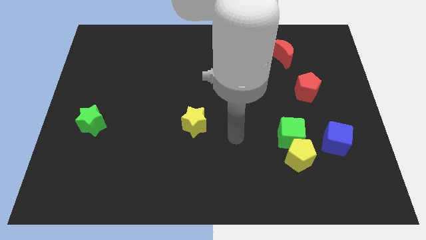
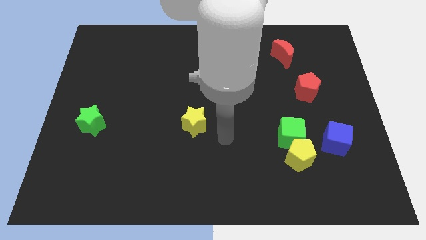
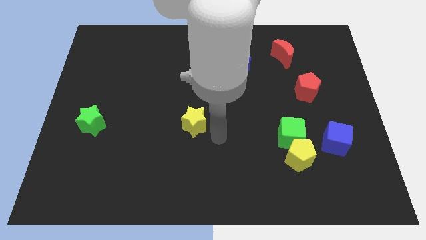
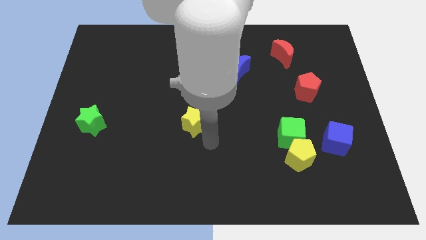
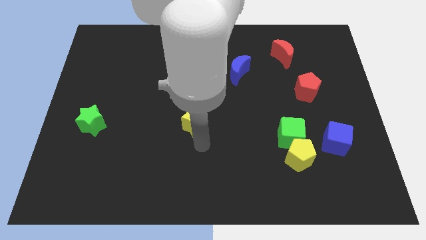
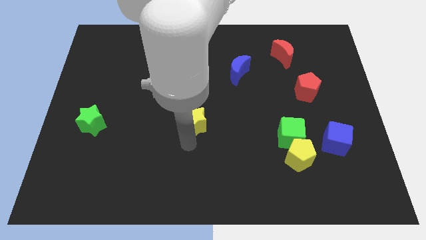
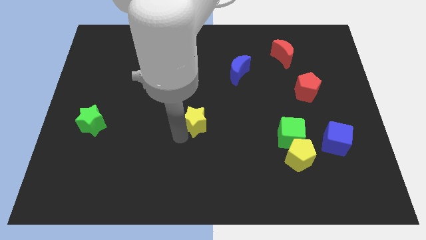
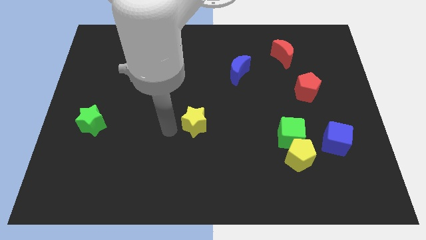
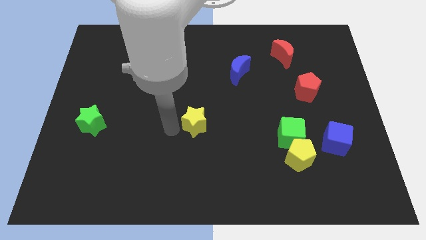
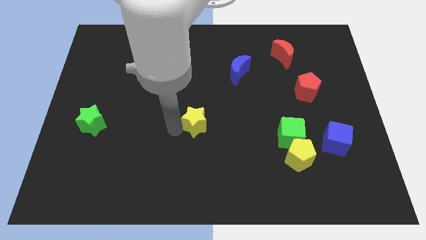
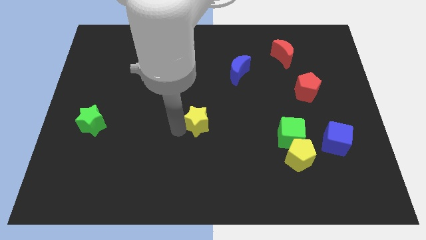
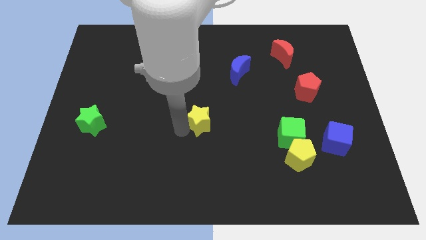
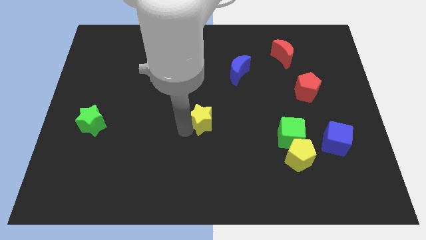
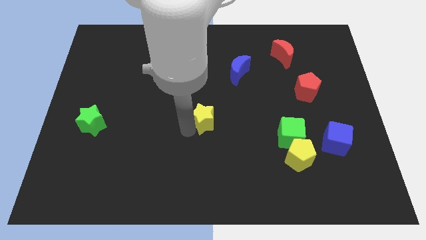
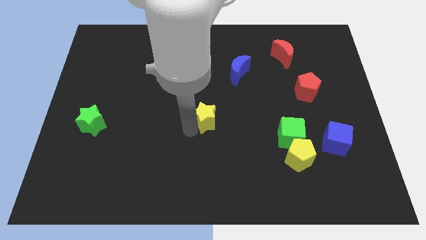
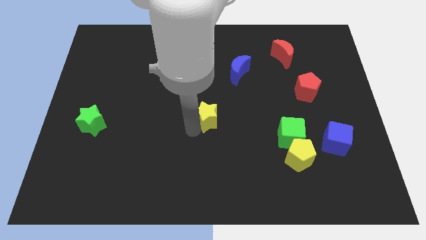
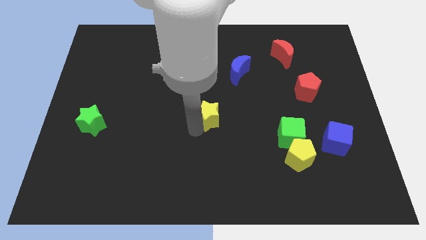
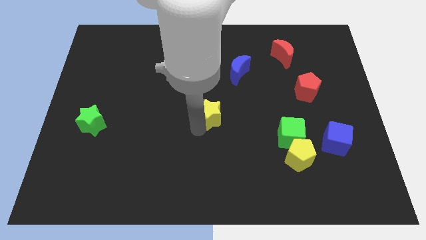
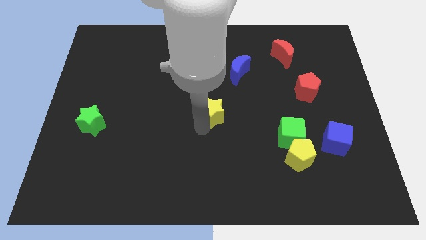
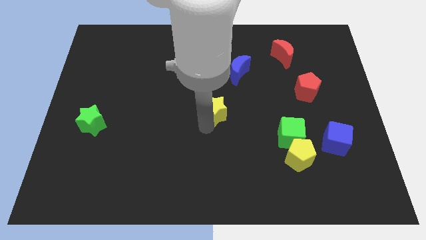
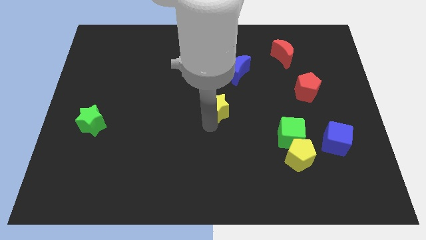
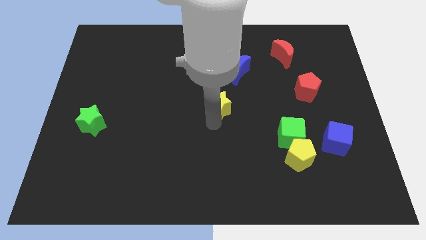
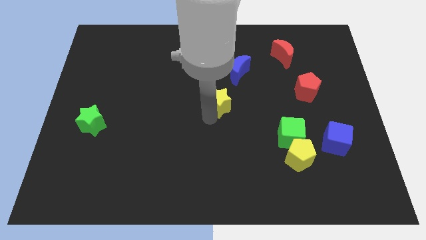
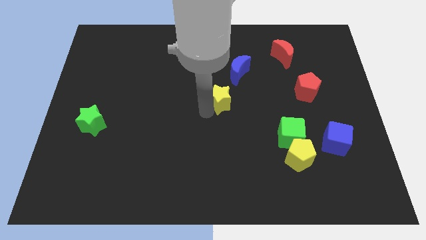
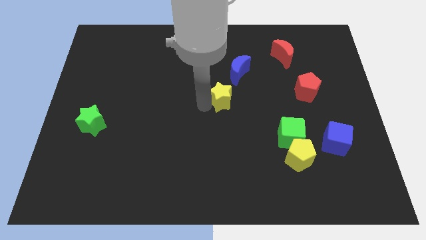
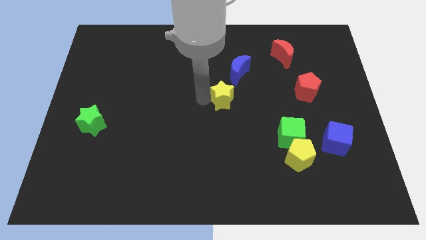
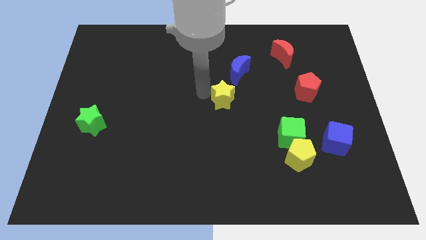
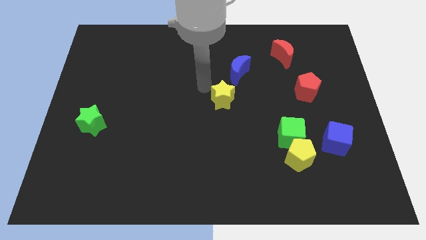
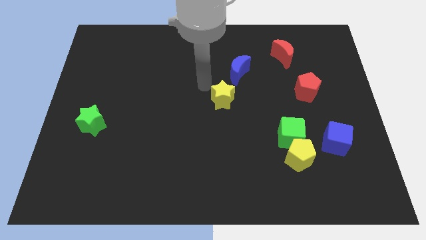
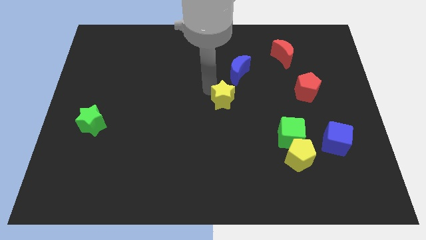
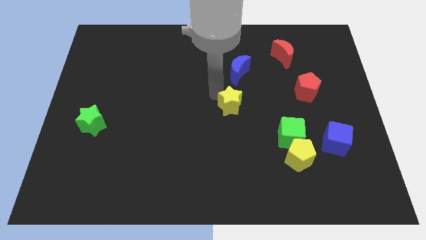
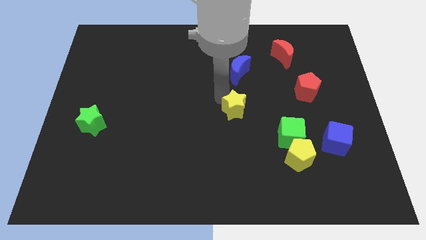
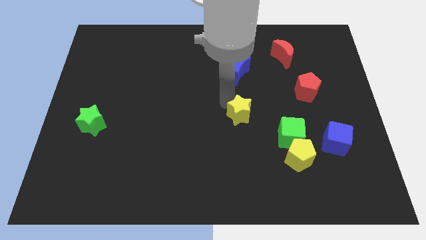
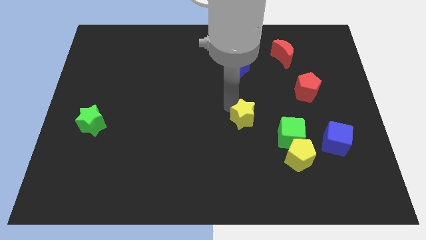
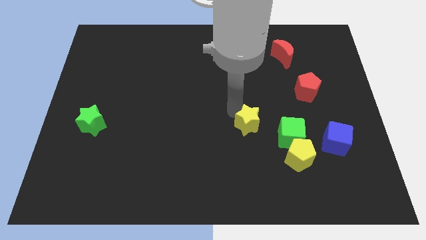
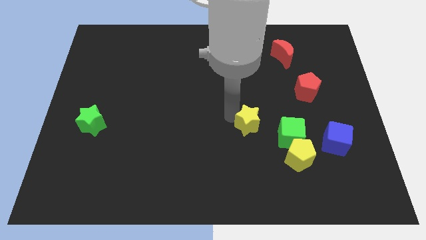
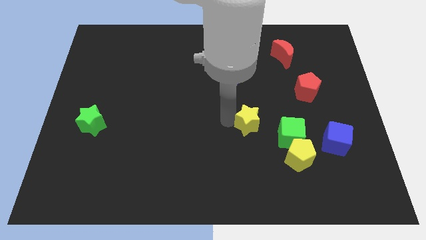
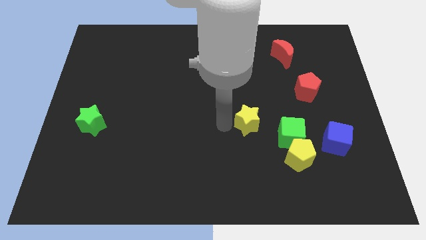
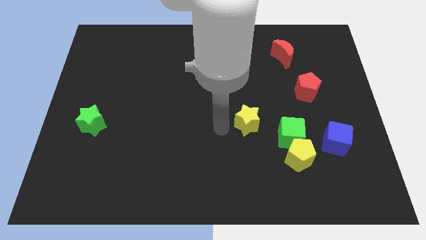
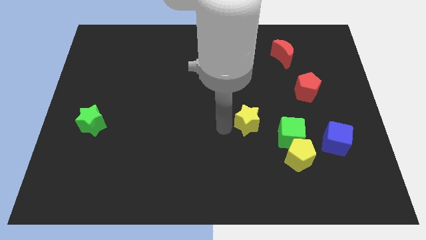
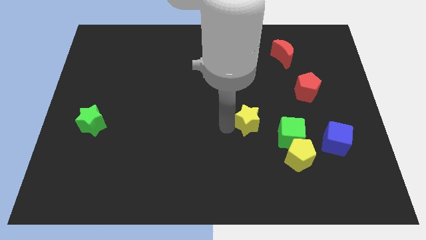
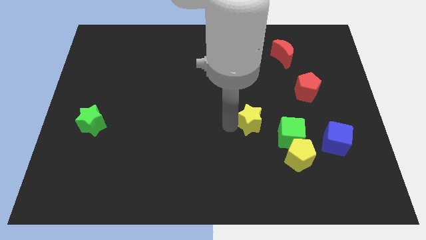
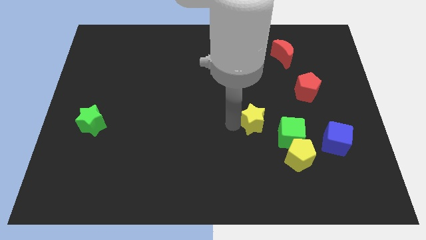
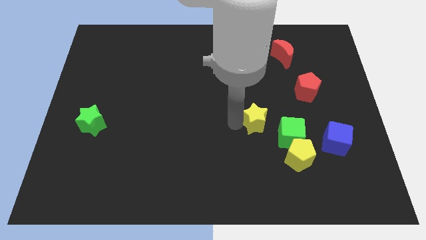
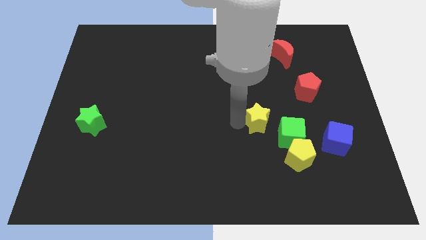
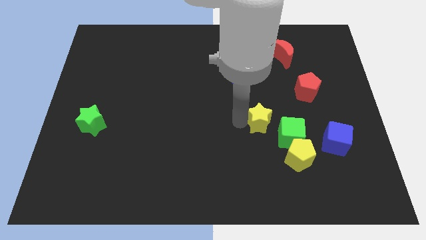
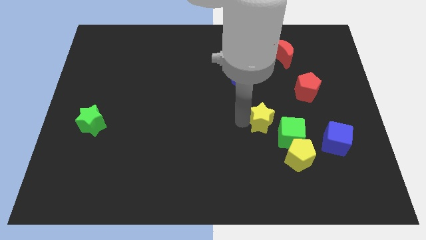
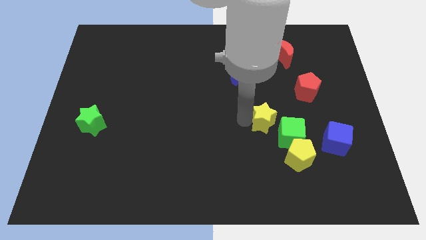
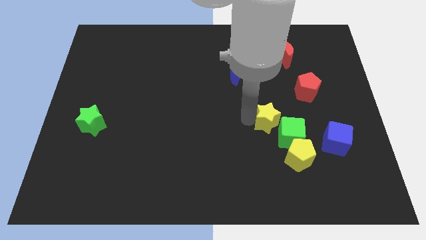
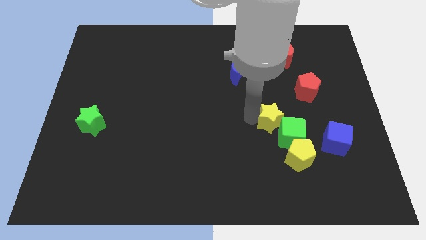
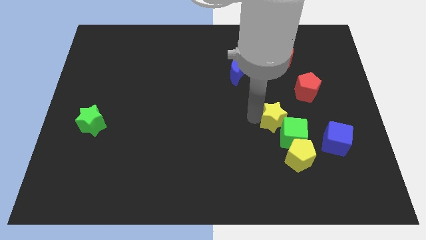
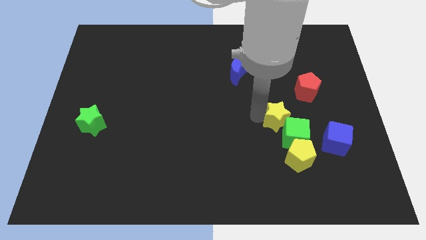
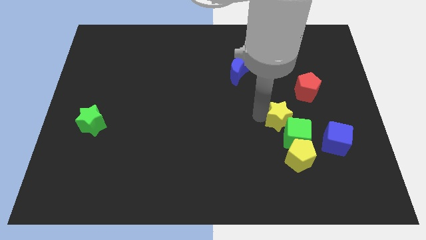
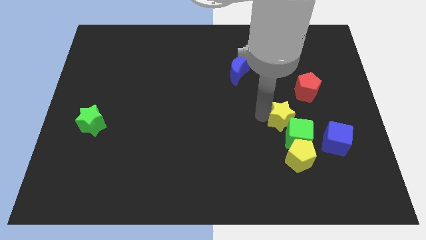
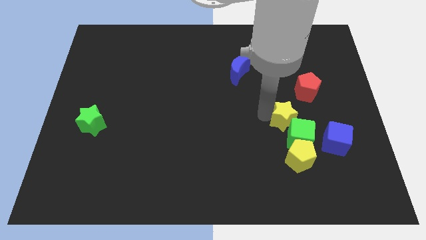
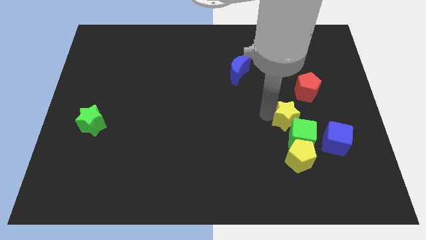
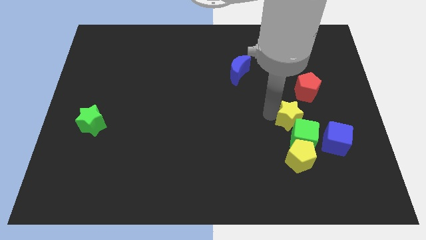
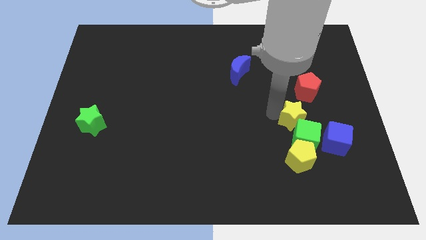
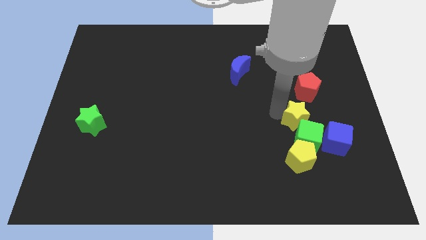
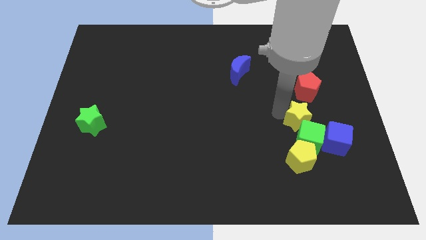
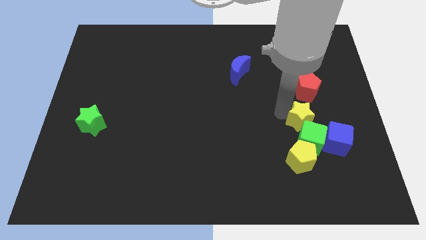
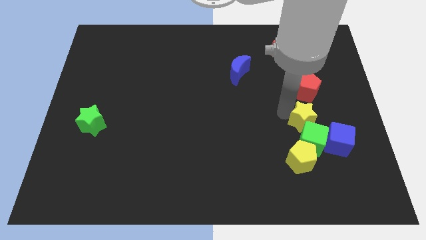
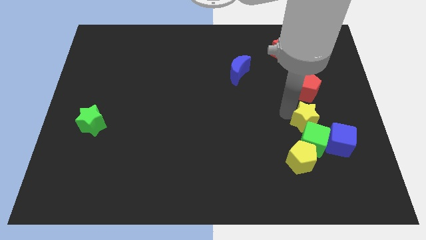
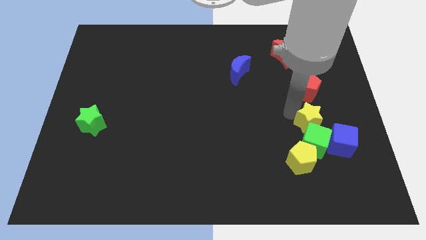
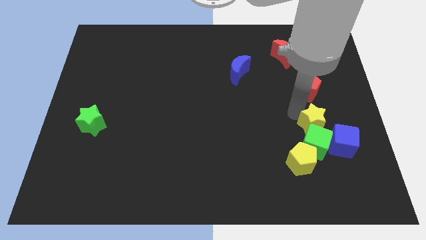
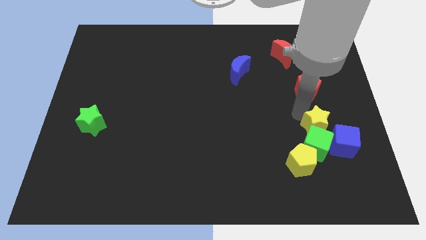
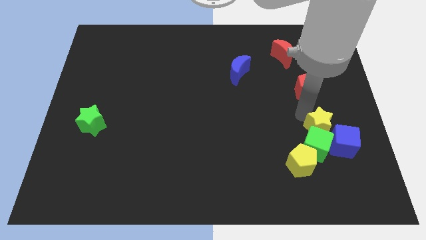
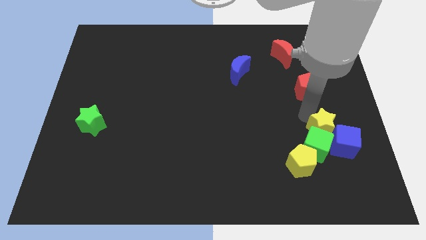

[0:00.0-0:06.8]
slide the yellow star close to the blue cube
